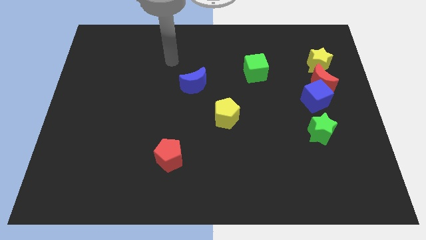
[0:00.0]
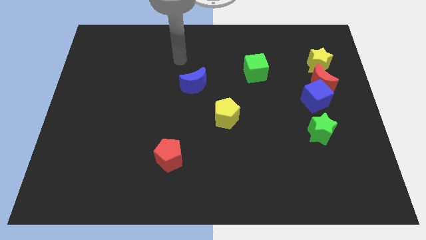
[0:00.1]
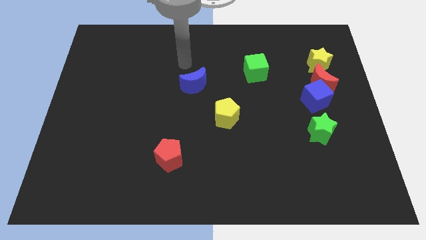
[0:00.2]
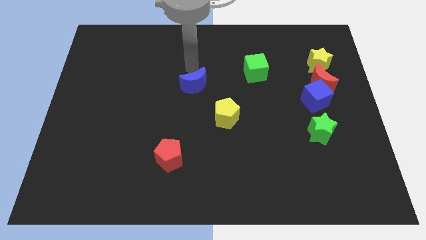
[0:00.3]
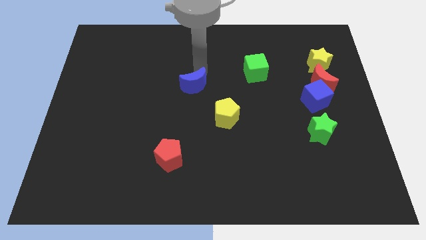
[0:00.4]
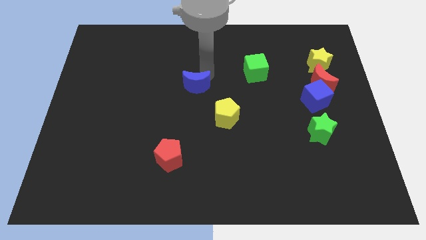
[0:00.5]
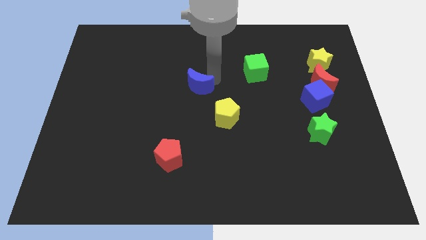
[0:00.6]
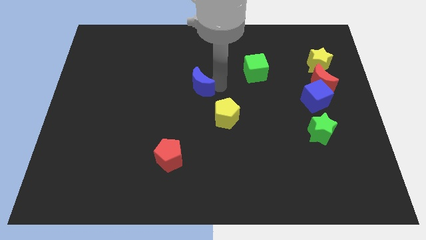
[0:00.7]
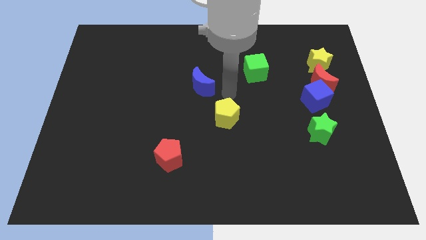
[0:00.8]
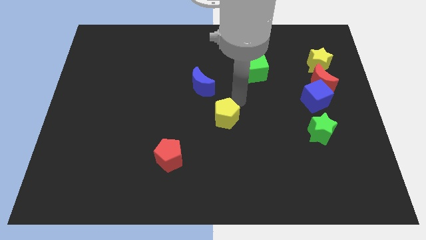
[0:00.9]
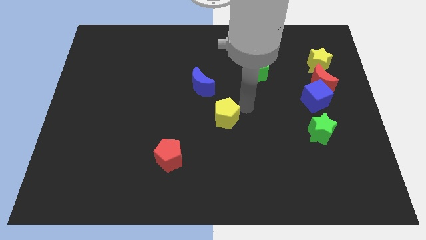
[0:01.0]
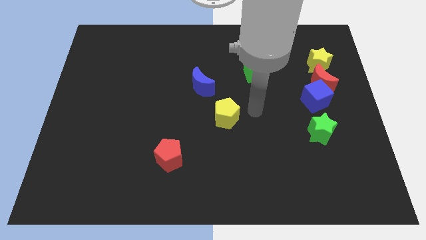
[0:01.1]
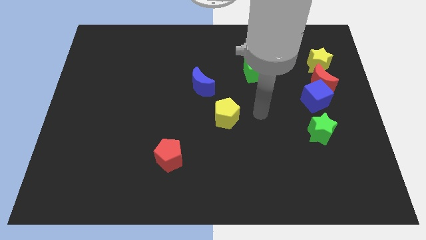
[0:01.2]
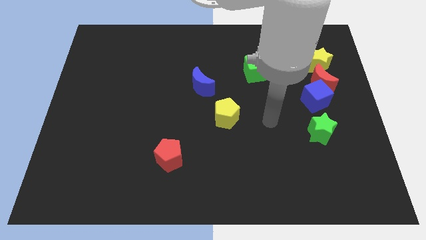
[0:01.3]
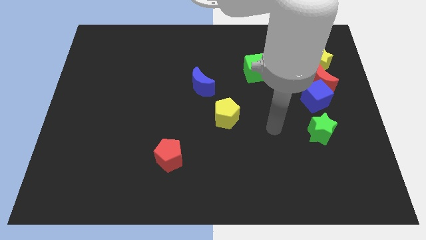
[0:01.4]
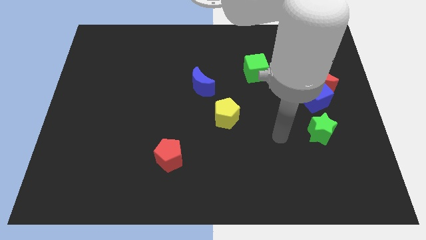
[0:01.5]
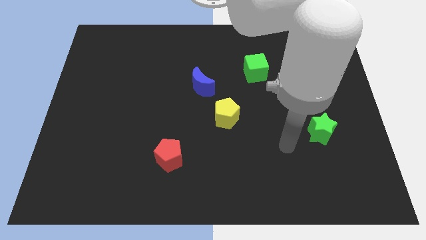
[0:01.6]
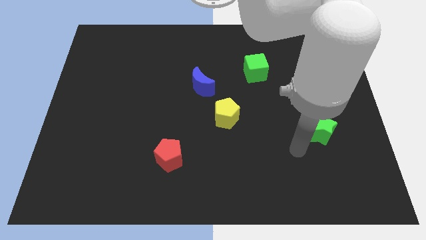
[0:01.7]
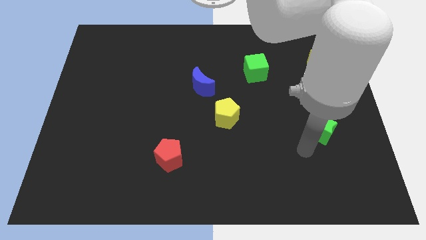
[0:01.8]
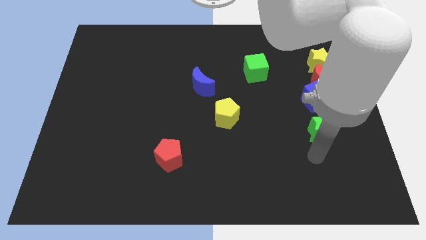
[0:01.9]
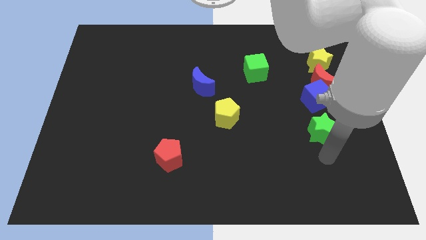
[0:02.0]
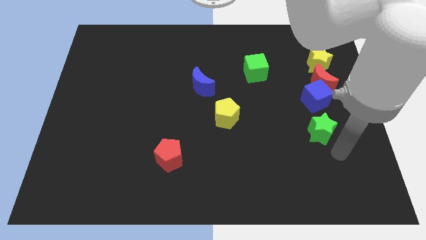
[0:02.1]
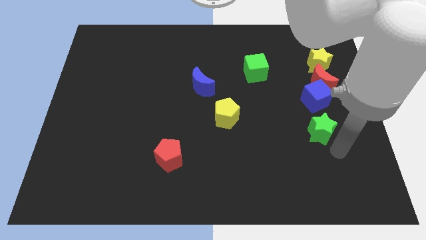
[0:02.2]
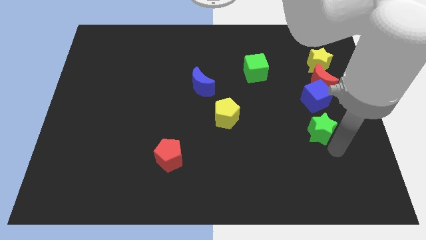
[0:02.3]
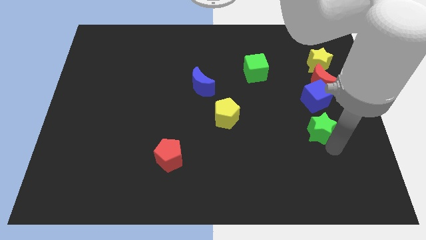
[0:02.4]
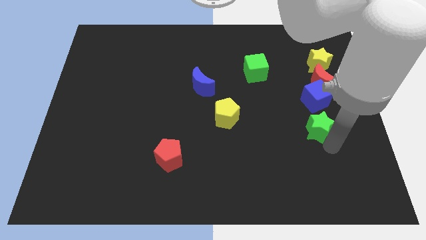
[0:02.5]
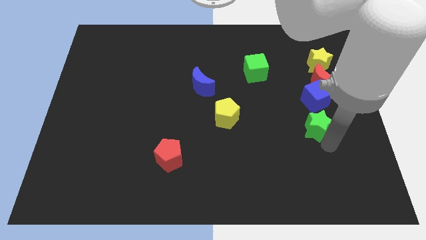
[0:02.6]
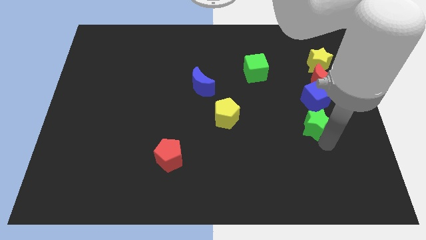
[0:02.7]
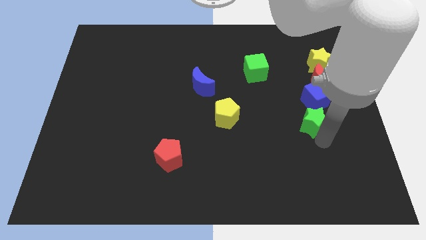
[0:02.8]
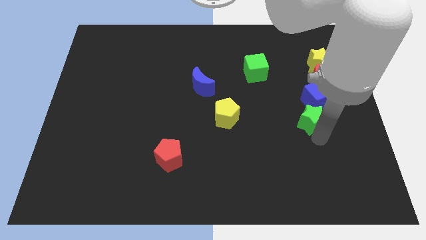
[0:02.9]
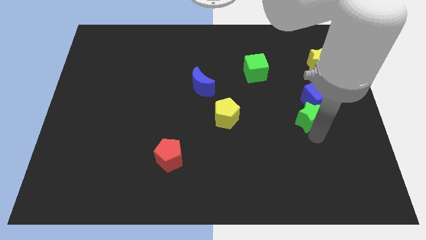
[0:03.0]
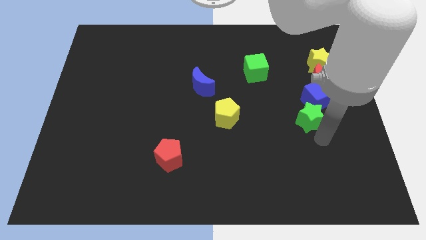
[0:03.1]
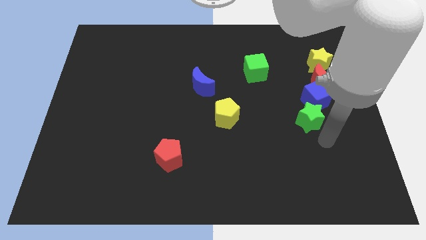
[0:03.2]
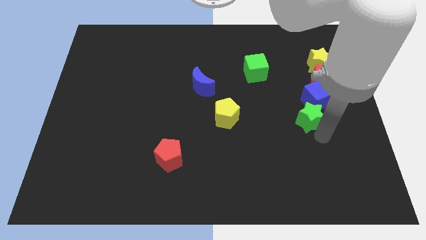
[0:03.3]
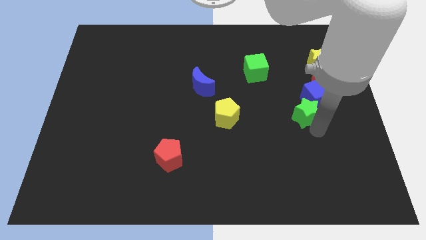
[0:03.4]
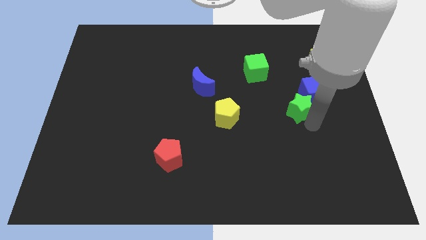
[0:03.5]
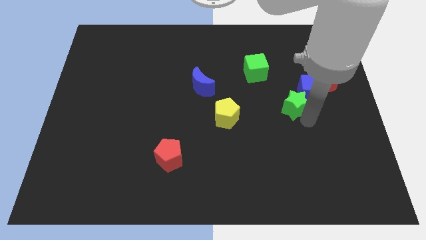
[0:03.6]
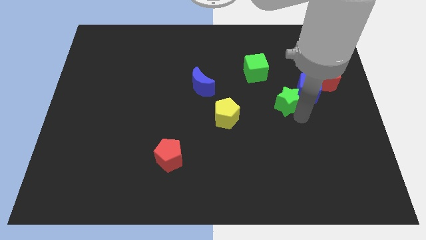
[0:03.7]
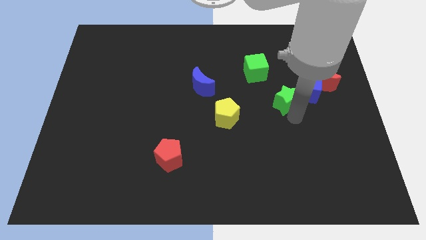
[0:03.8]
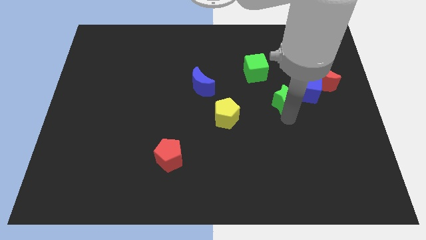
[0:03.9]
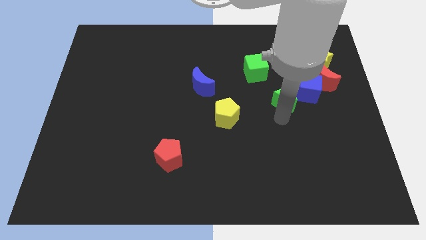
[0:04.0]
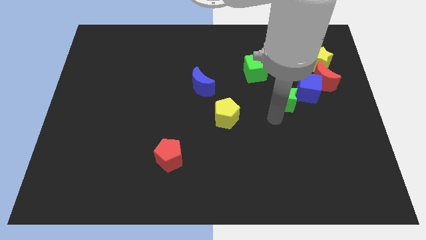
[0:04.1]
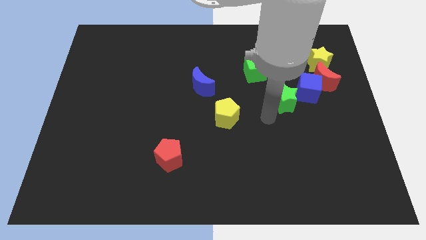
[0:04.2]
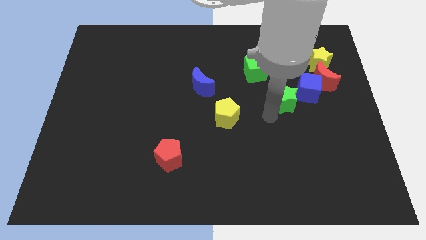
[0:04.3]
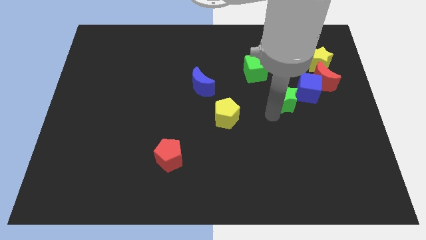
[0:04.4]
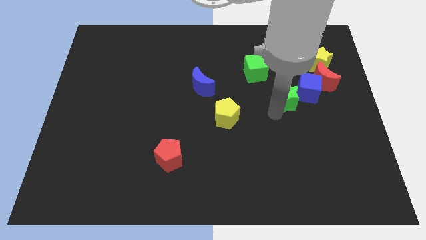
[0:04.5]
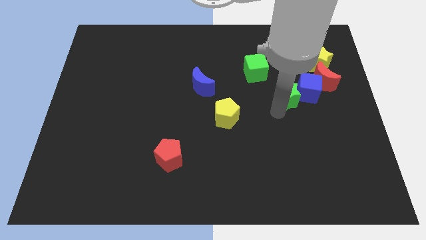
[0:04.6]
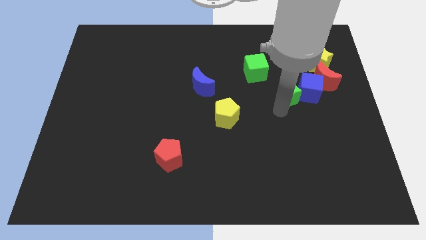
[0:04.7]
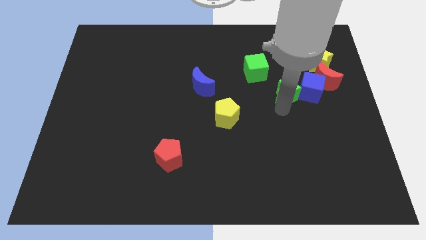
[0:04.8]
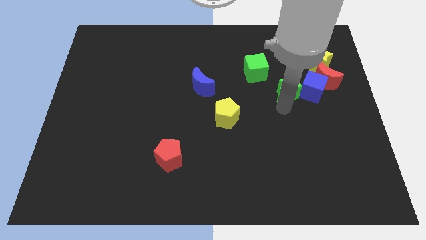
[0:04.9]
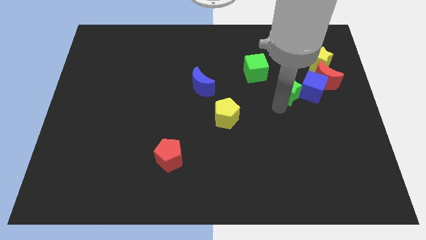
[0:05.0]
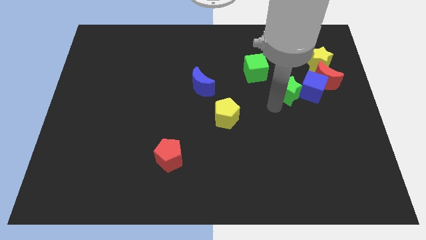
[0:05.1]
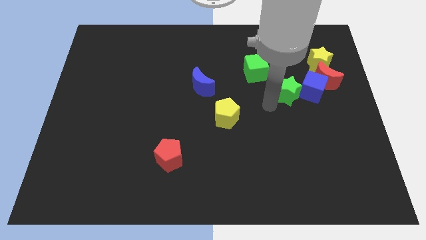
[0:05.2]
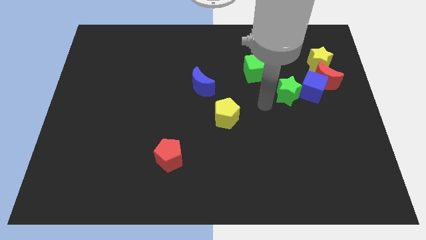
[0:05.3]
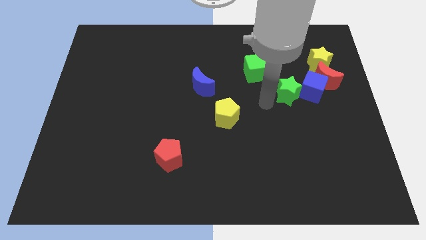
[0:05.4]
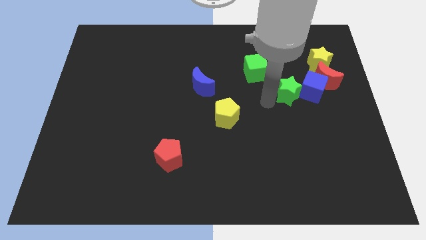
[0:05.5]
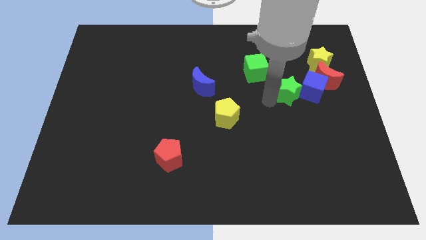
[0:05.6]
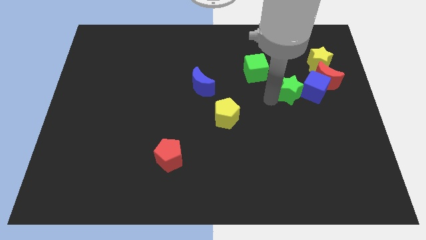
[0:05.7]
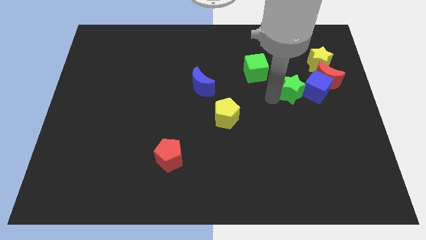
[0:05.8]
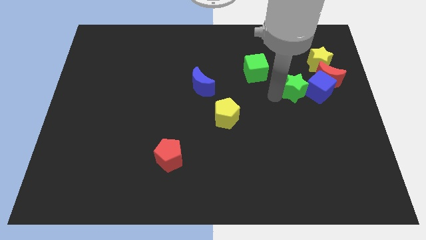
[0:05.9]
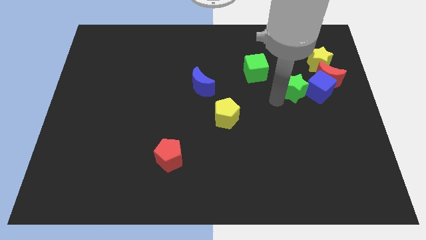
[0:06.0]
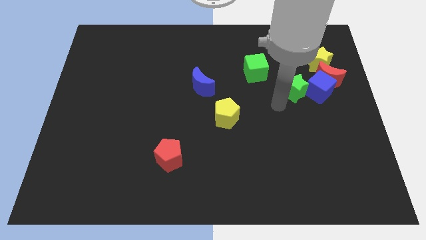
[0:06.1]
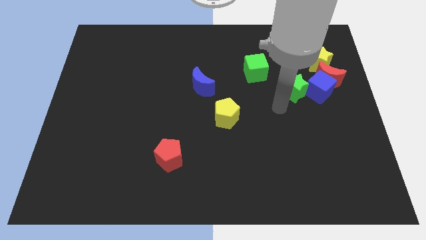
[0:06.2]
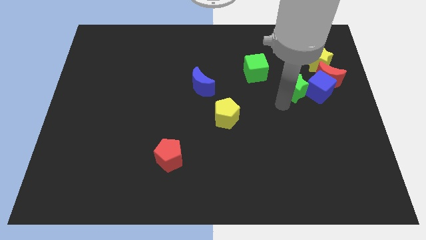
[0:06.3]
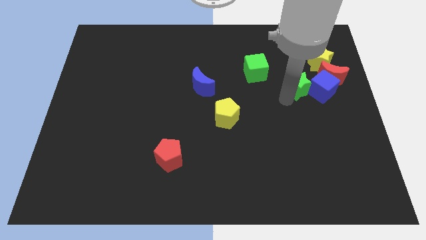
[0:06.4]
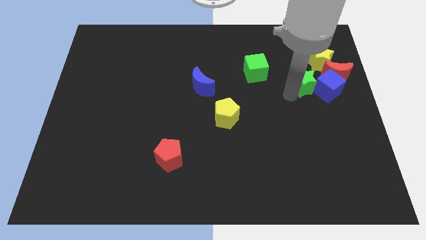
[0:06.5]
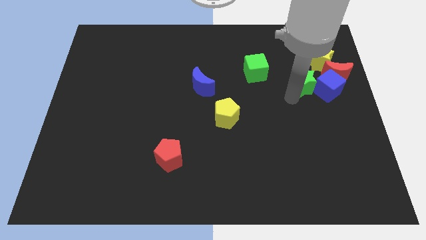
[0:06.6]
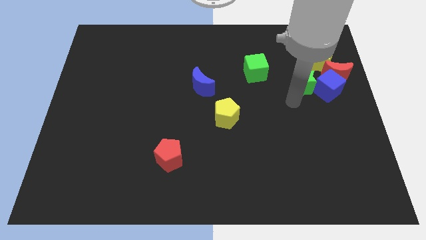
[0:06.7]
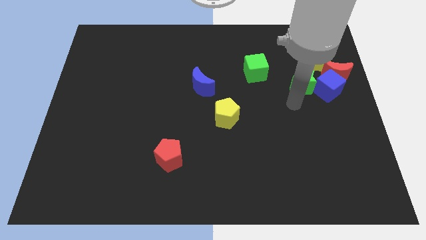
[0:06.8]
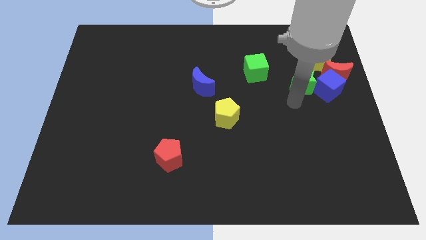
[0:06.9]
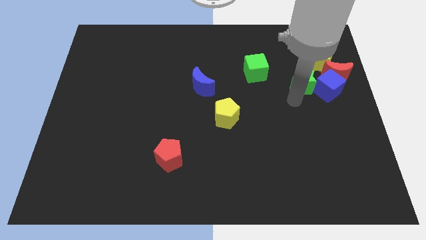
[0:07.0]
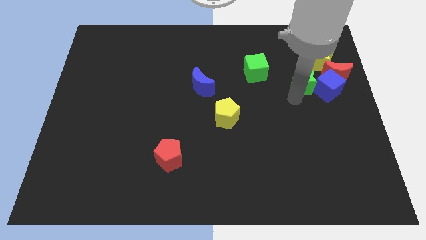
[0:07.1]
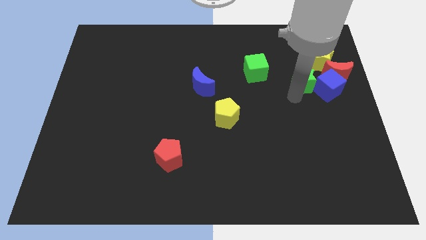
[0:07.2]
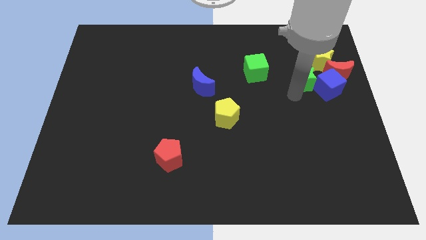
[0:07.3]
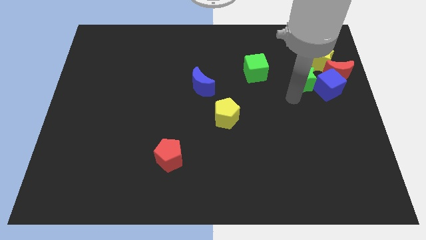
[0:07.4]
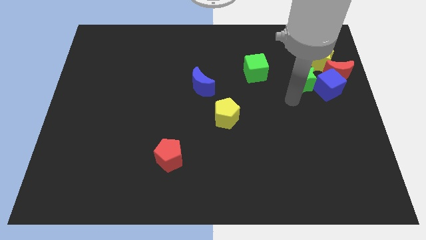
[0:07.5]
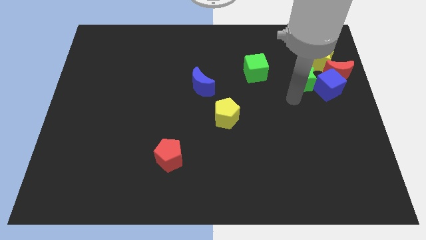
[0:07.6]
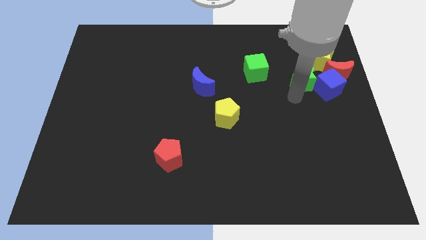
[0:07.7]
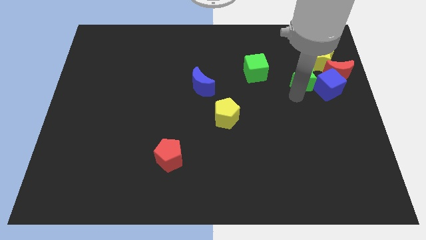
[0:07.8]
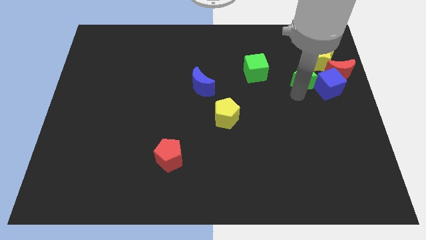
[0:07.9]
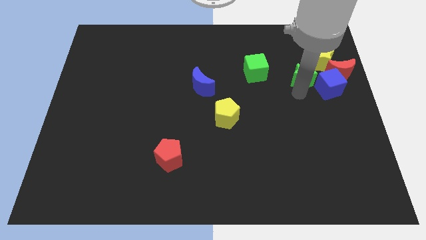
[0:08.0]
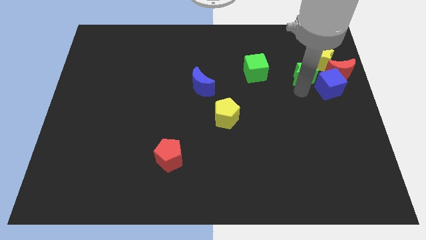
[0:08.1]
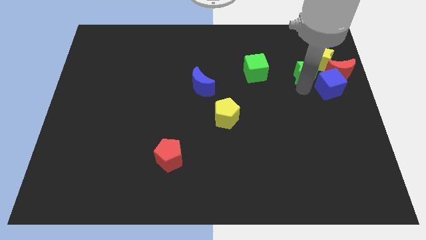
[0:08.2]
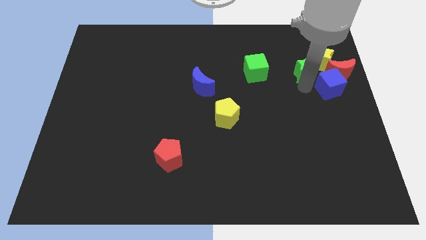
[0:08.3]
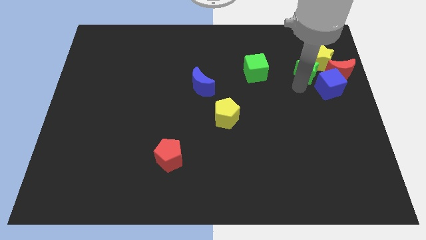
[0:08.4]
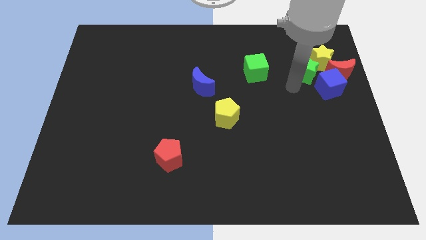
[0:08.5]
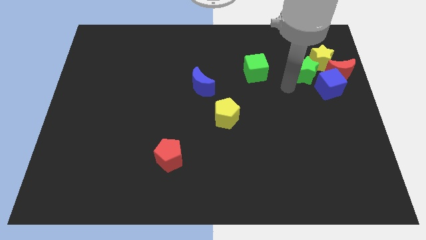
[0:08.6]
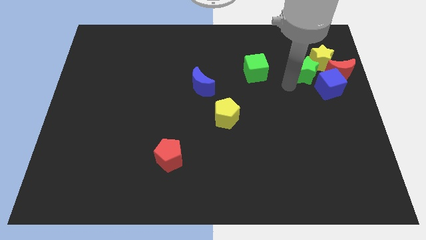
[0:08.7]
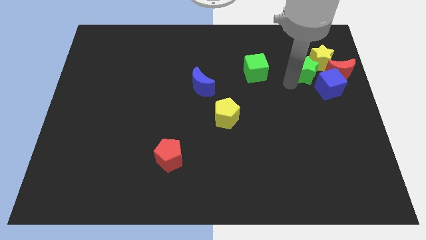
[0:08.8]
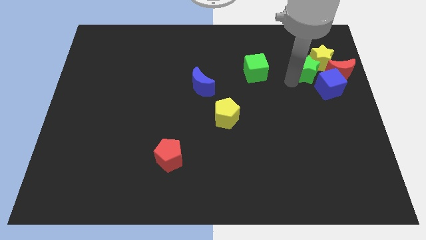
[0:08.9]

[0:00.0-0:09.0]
move the green star close to the yellow star
